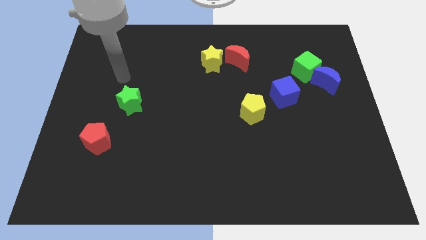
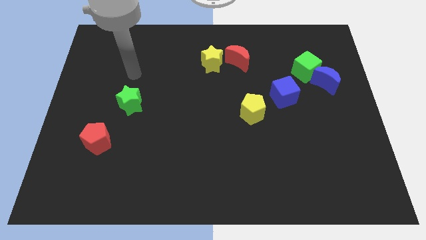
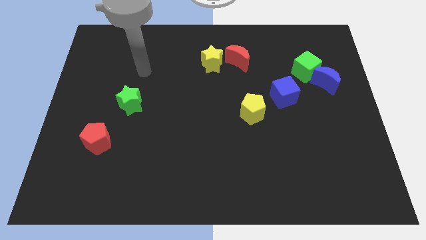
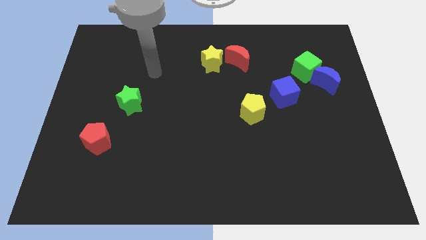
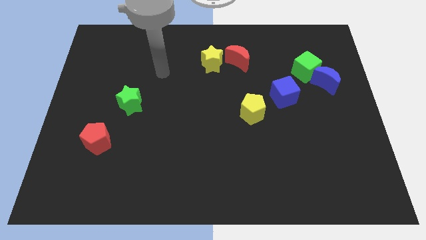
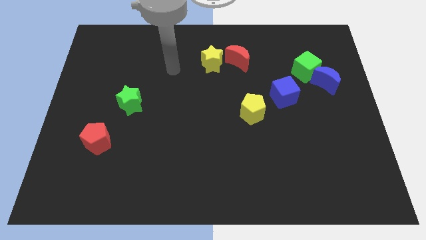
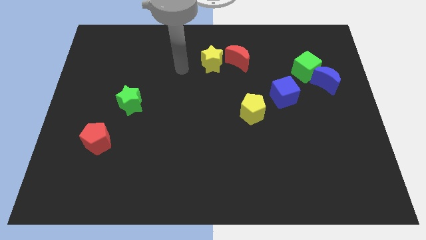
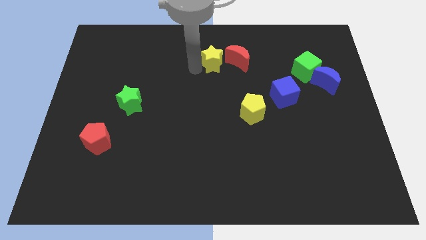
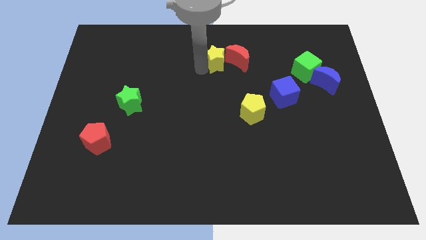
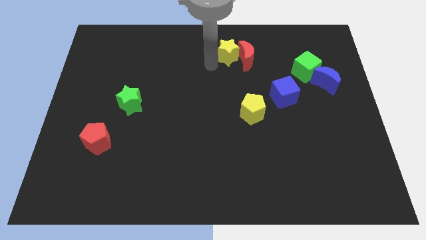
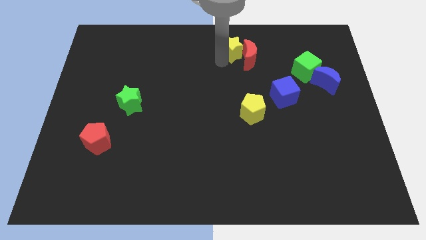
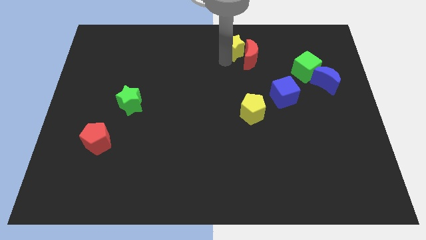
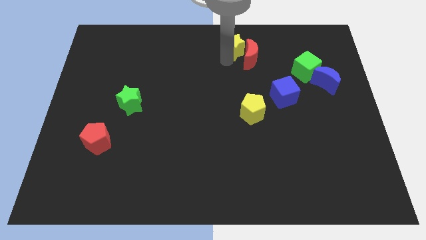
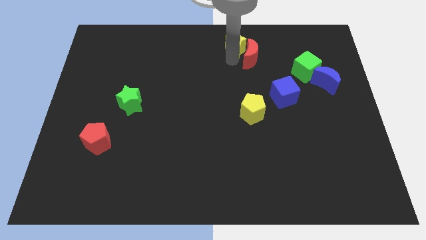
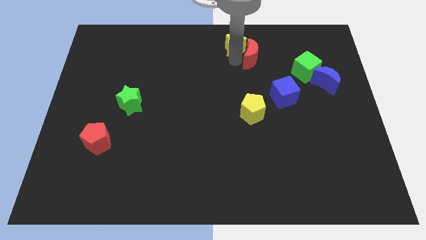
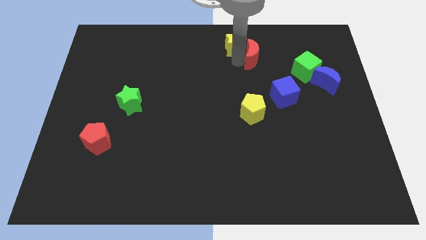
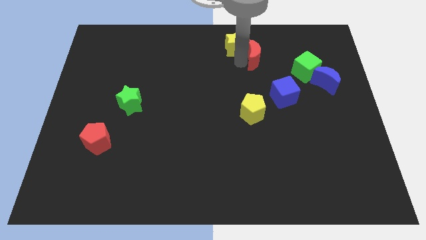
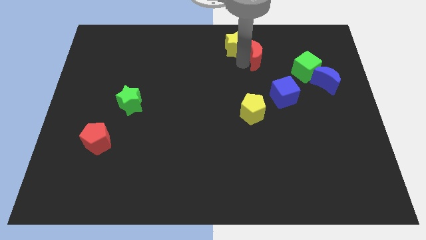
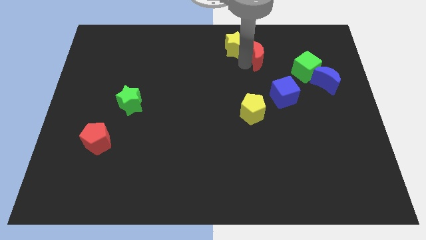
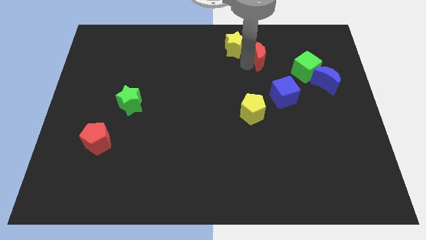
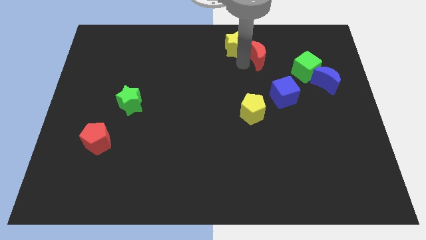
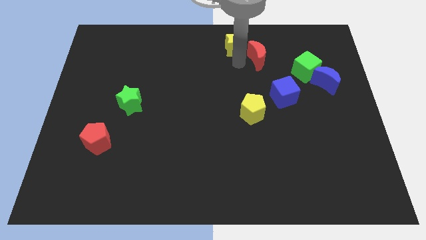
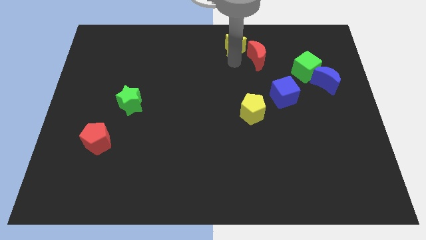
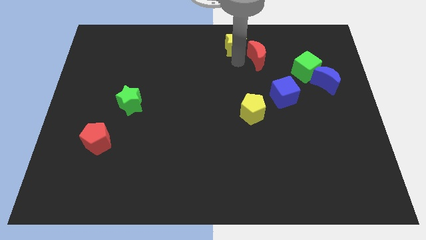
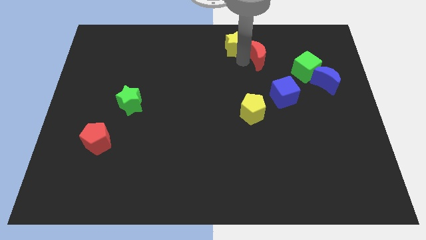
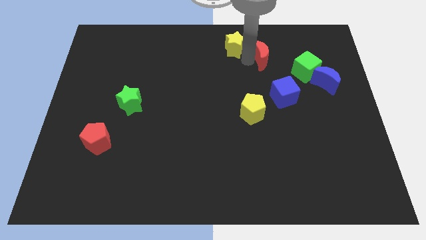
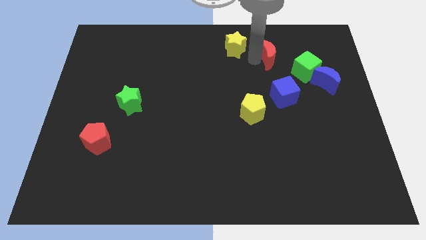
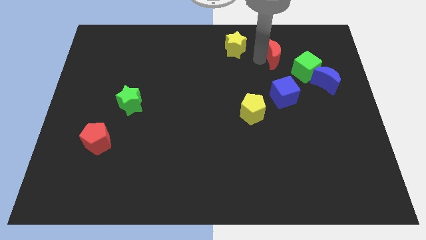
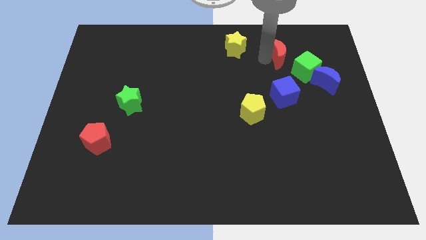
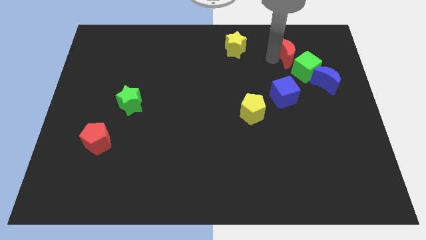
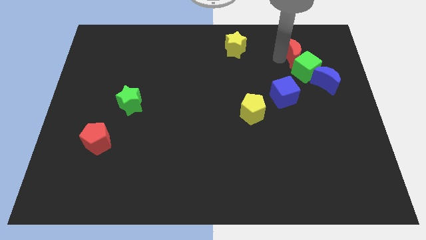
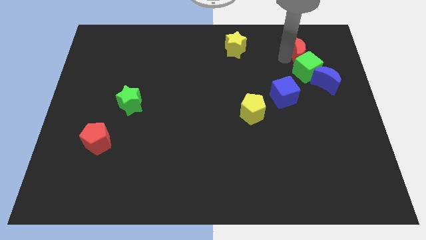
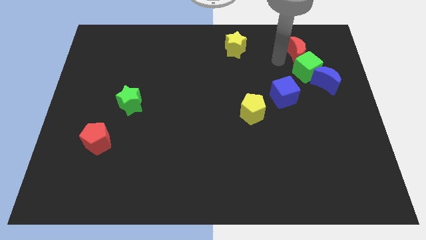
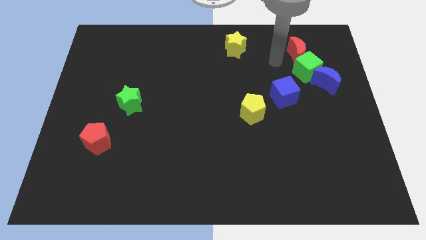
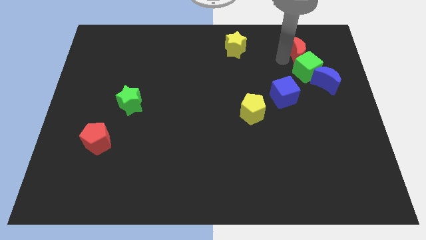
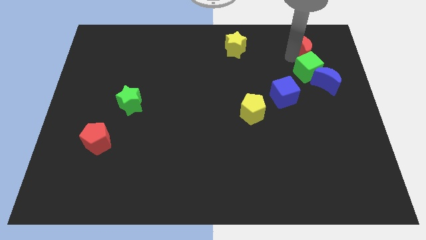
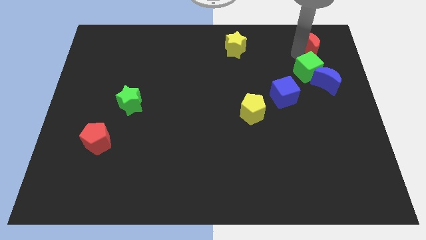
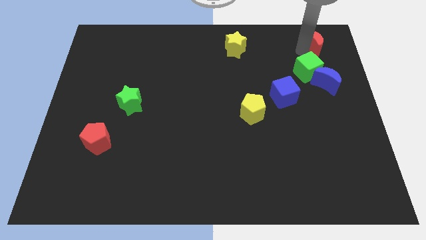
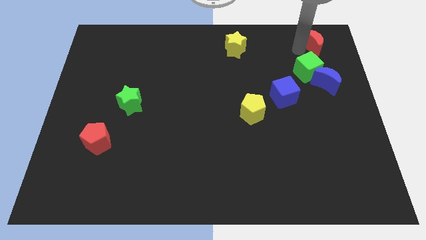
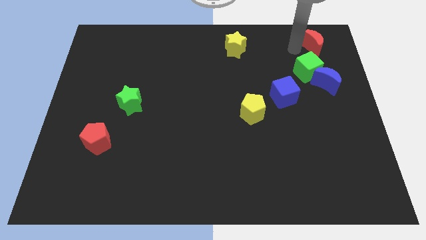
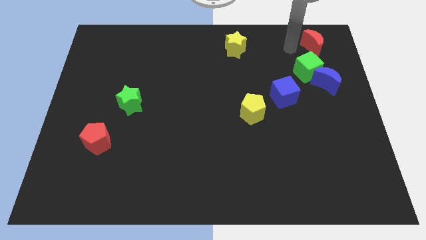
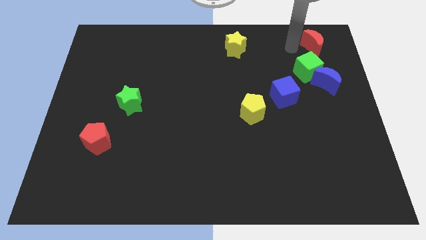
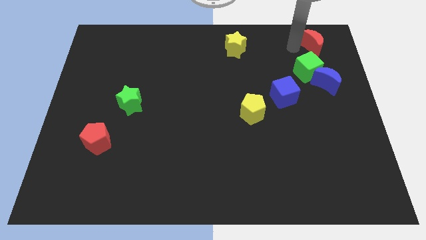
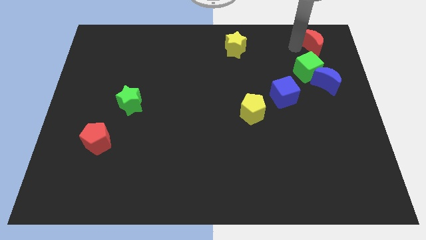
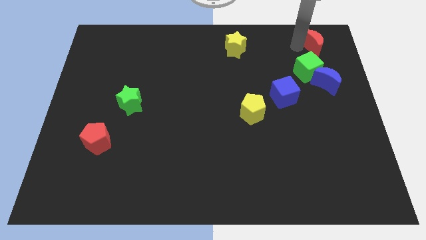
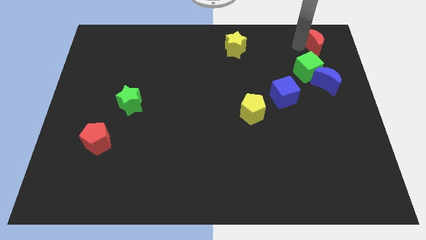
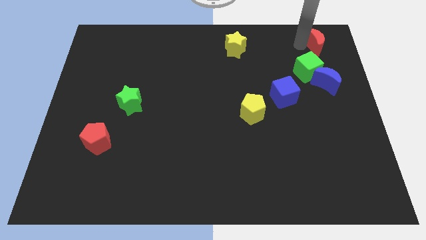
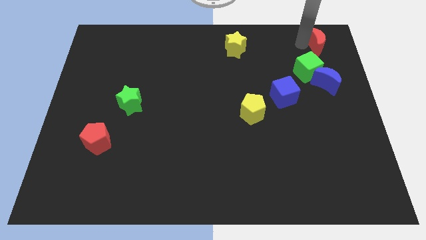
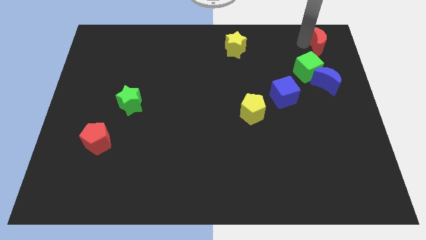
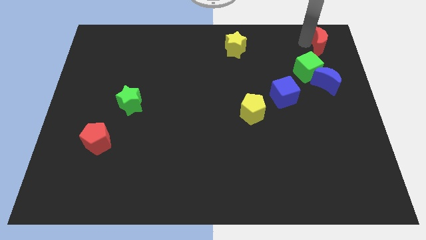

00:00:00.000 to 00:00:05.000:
put the red moon to the top right

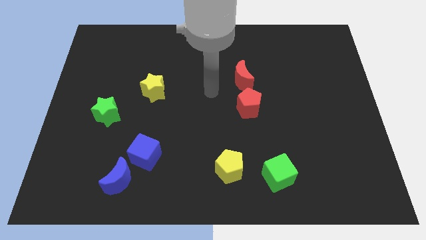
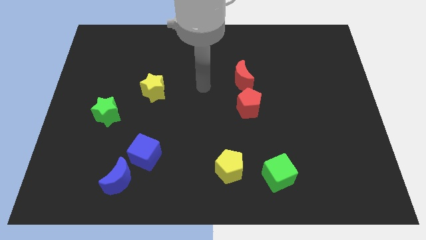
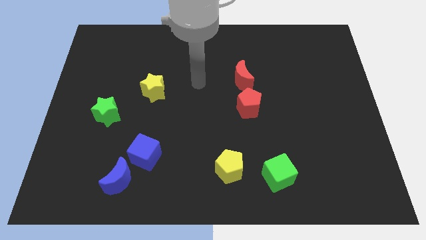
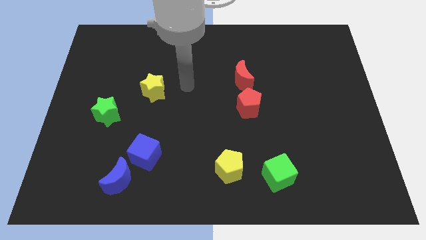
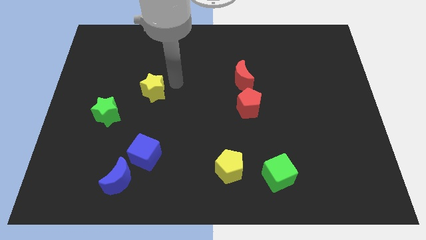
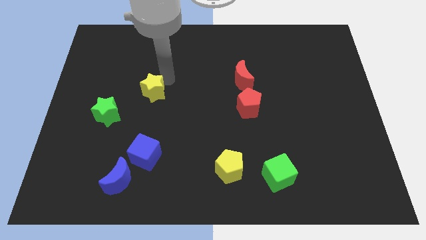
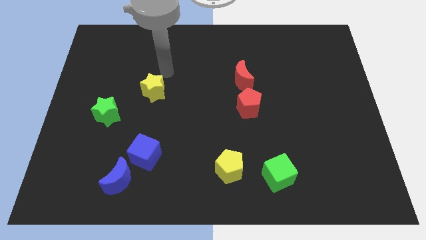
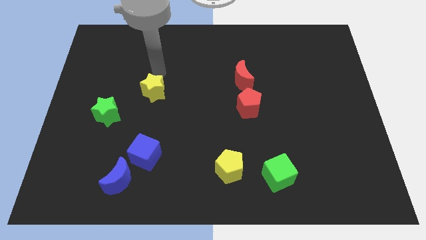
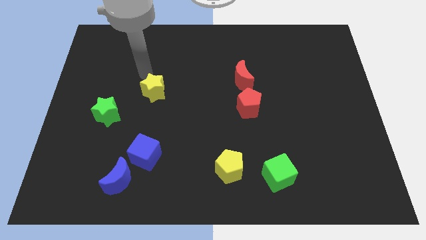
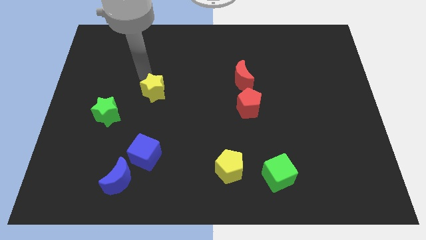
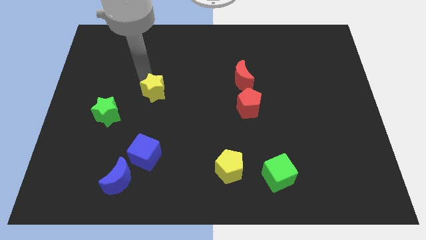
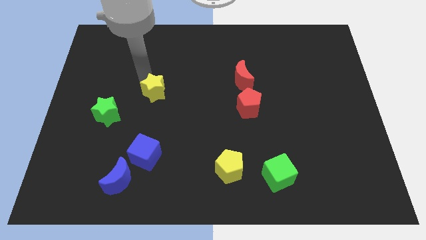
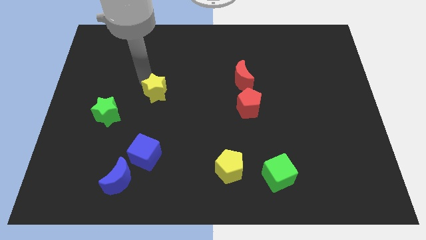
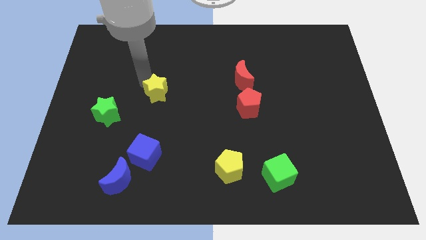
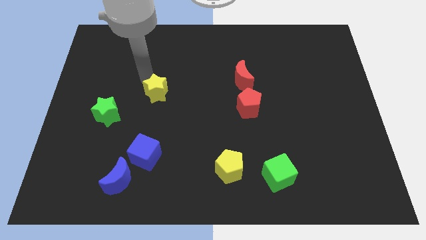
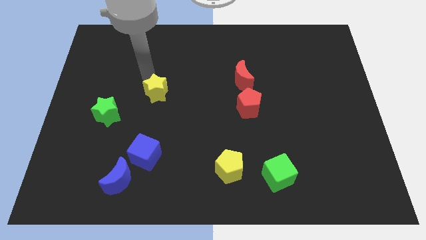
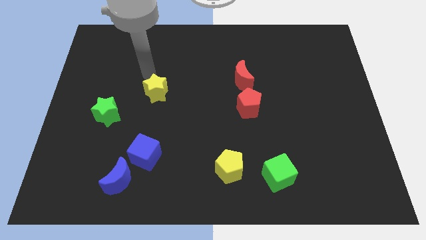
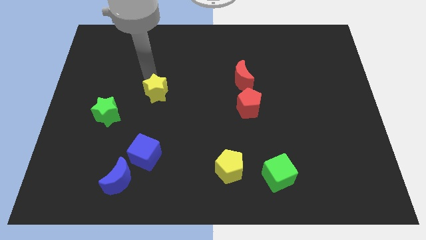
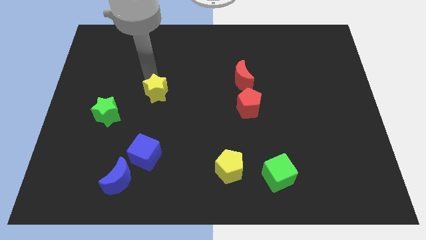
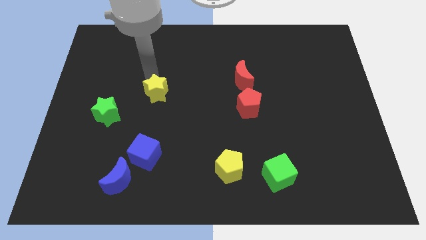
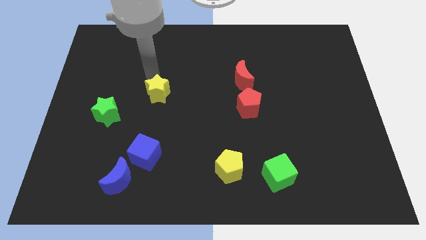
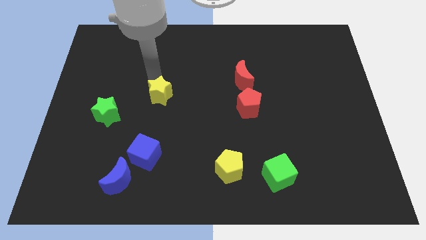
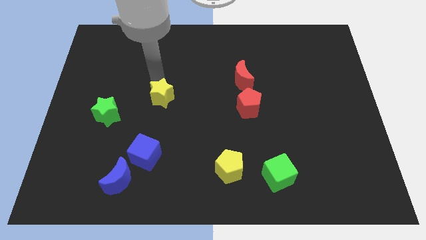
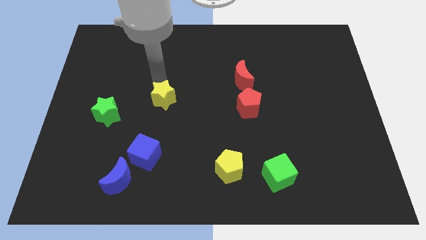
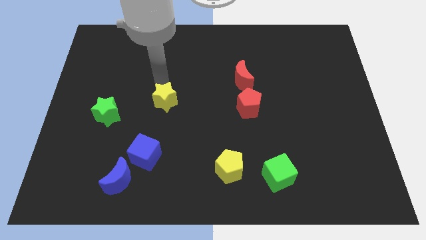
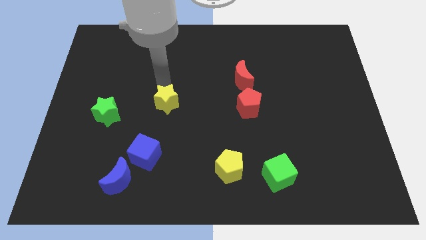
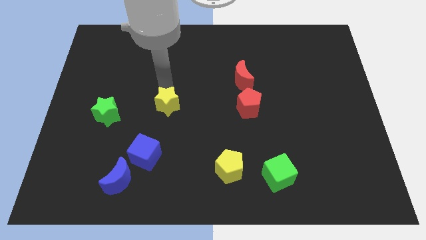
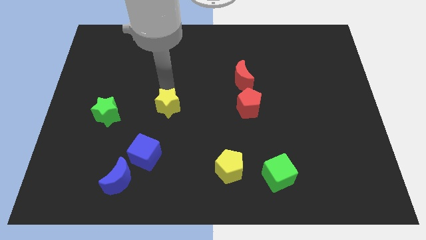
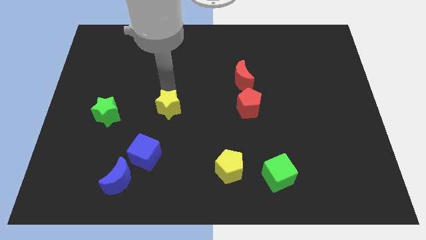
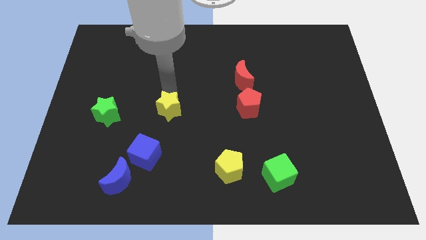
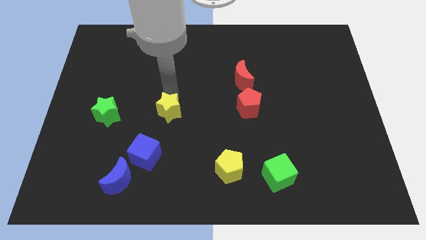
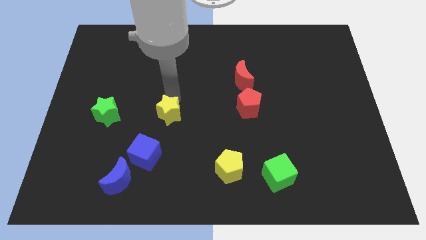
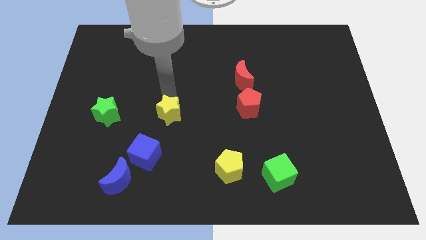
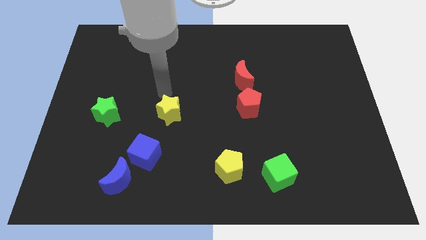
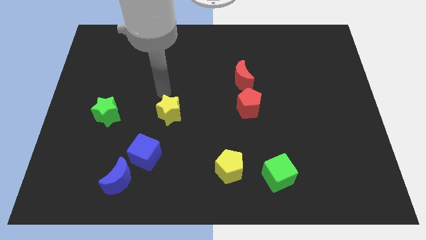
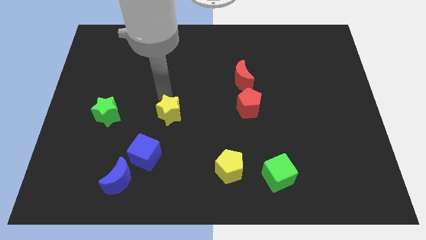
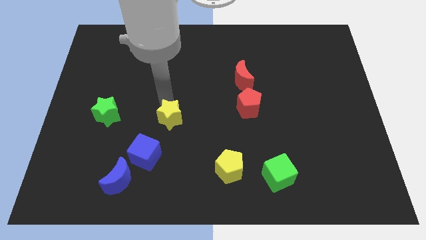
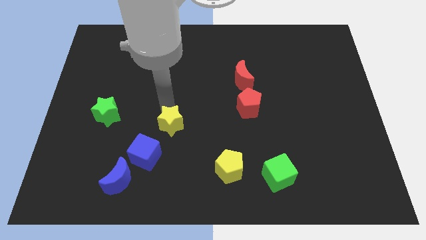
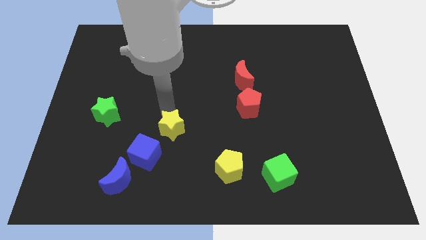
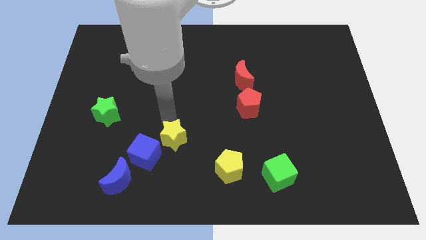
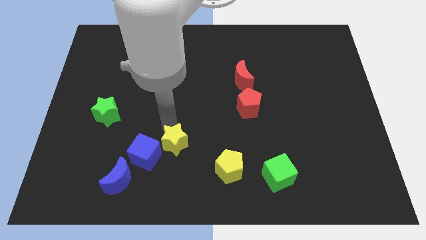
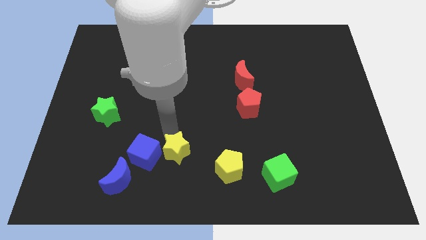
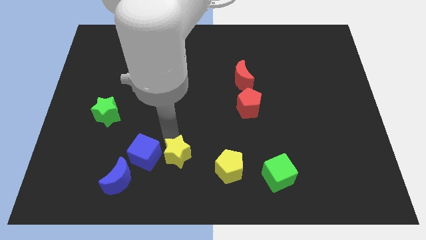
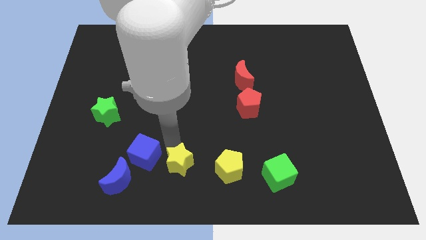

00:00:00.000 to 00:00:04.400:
move the yellow star to the bottom side
